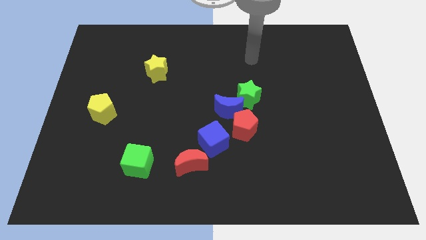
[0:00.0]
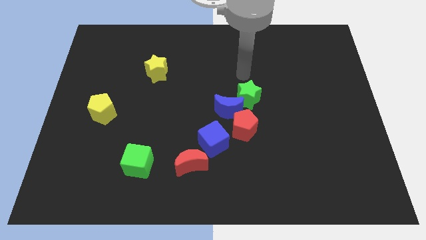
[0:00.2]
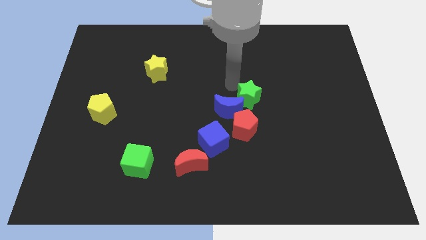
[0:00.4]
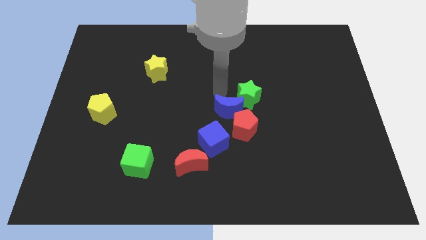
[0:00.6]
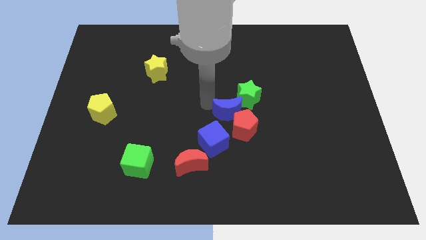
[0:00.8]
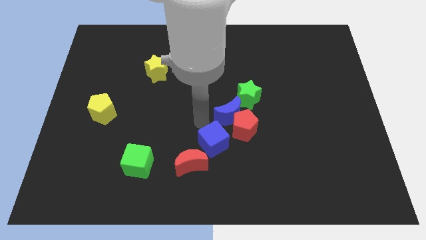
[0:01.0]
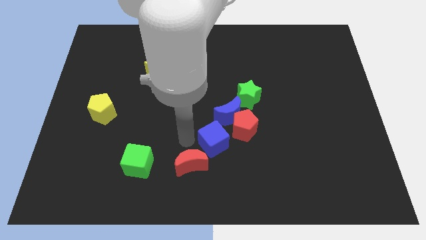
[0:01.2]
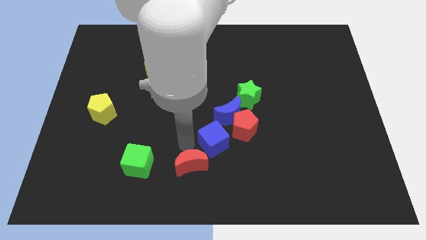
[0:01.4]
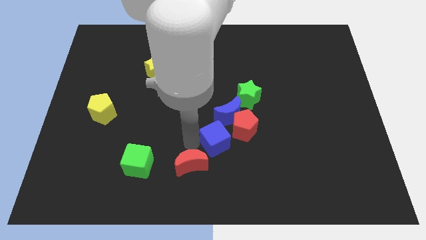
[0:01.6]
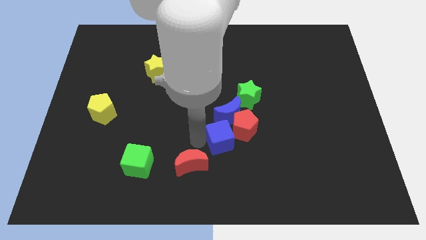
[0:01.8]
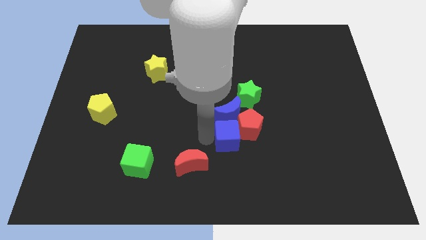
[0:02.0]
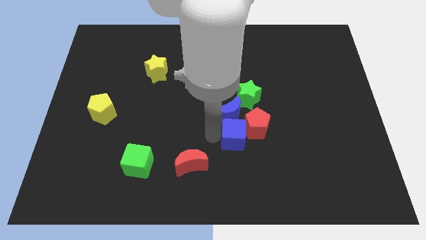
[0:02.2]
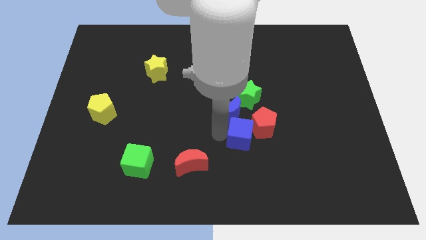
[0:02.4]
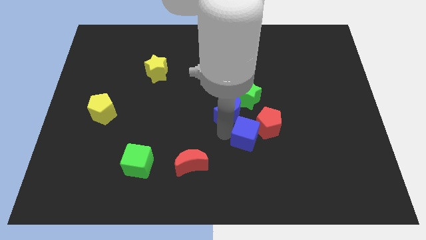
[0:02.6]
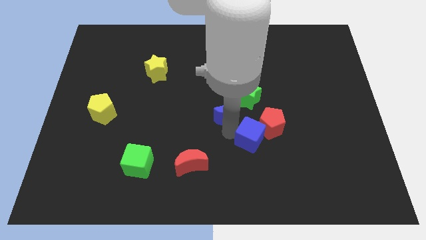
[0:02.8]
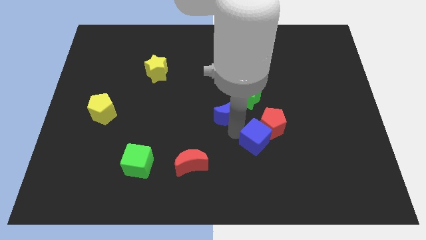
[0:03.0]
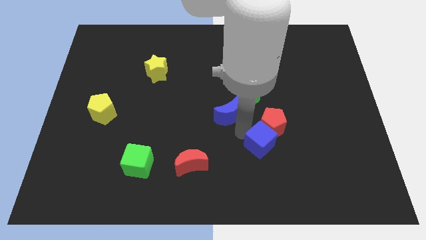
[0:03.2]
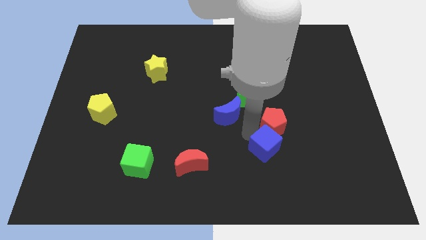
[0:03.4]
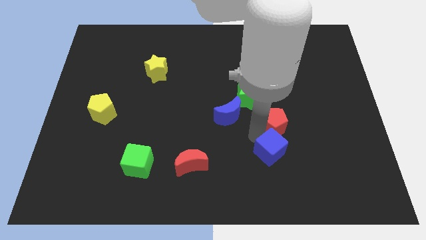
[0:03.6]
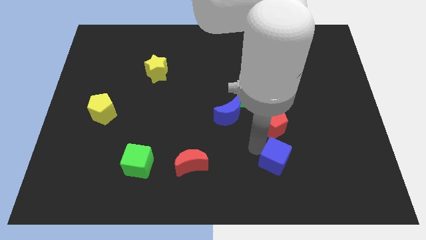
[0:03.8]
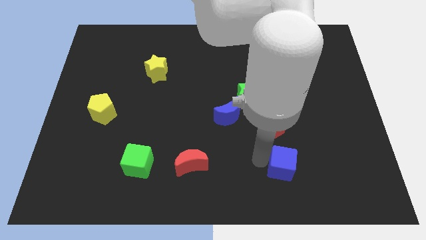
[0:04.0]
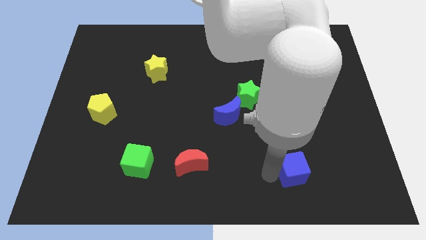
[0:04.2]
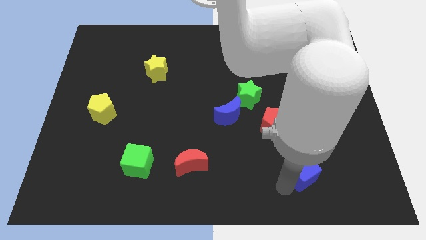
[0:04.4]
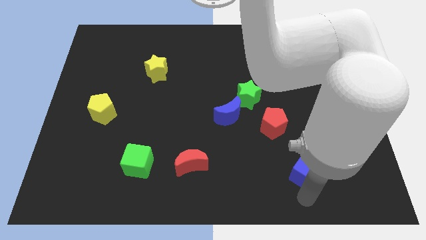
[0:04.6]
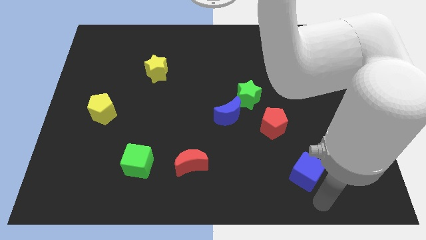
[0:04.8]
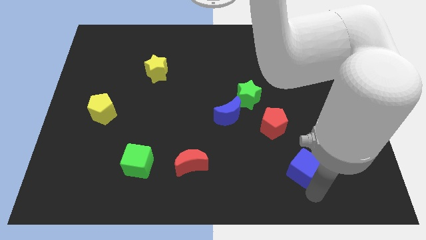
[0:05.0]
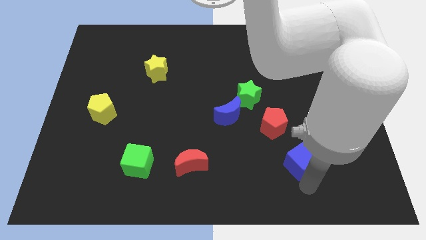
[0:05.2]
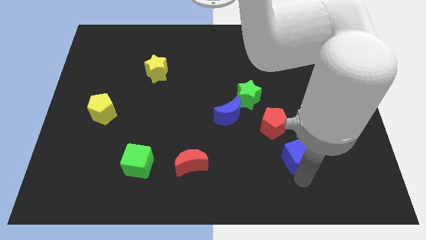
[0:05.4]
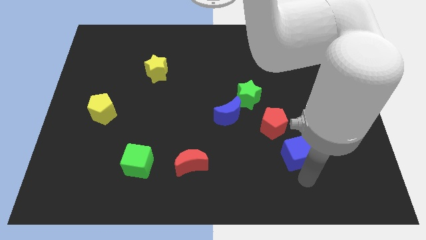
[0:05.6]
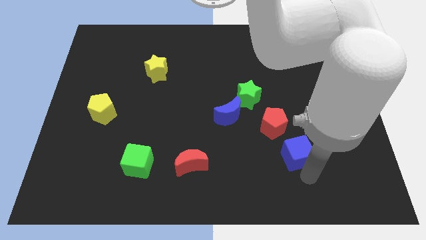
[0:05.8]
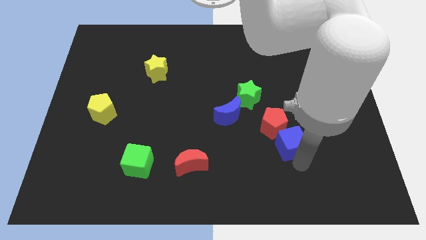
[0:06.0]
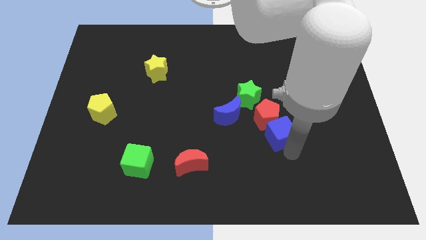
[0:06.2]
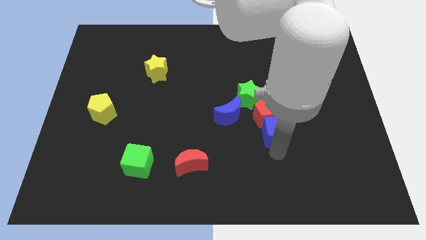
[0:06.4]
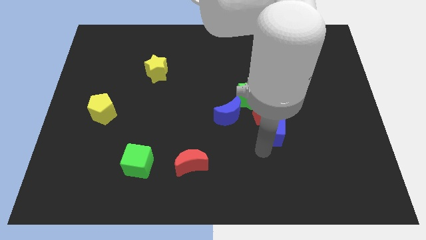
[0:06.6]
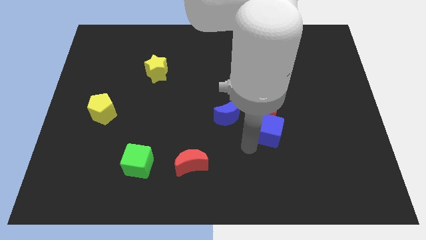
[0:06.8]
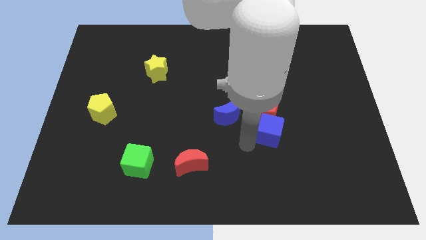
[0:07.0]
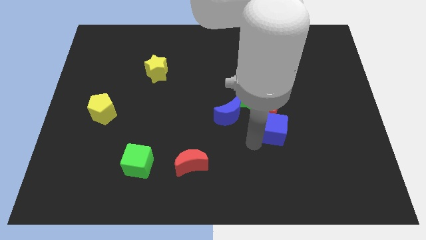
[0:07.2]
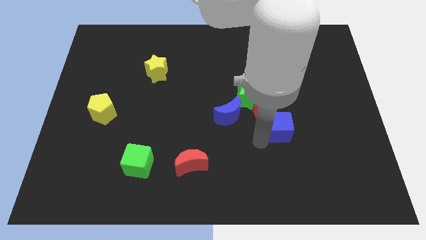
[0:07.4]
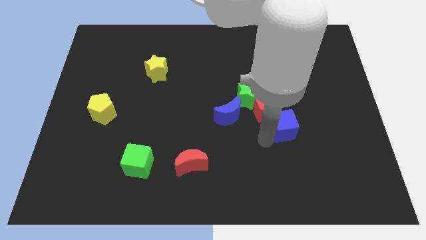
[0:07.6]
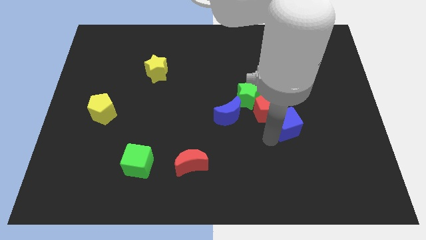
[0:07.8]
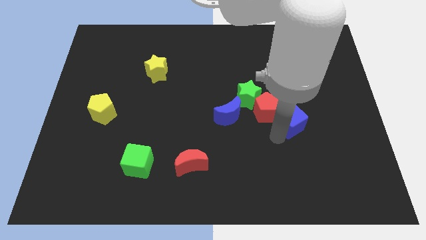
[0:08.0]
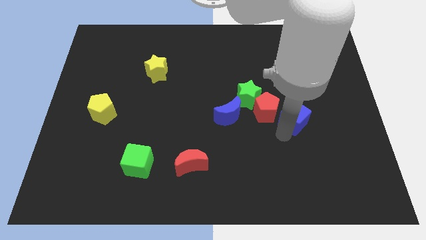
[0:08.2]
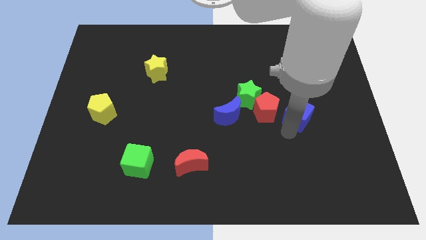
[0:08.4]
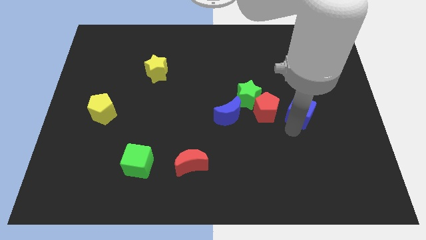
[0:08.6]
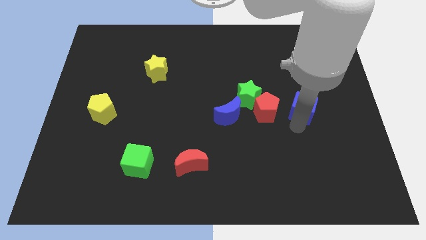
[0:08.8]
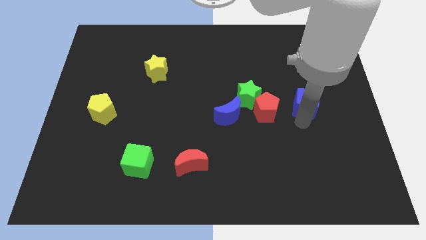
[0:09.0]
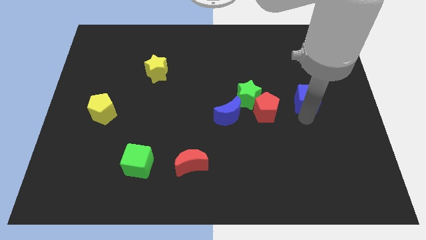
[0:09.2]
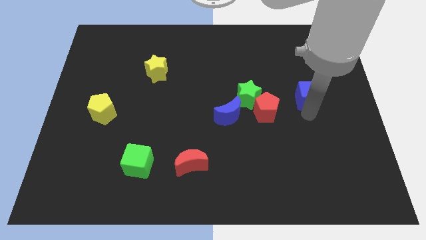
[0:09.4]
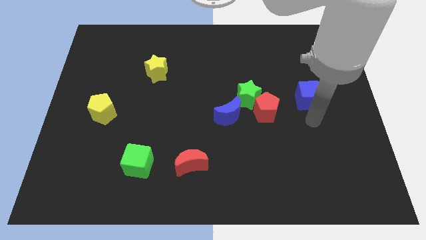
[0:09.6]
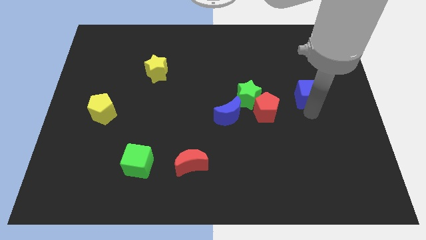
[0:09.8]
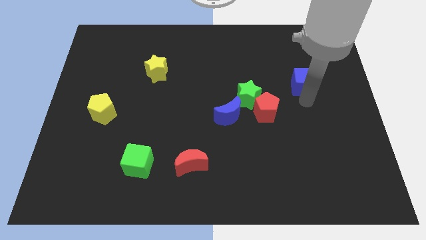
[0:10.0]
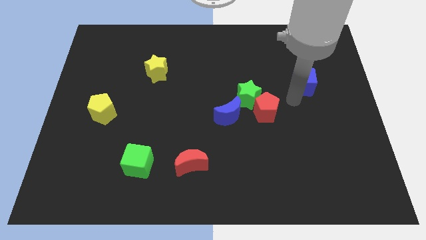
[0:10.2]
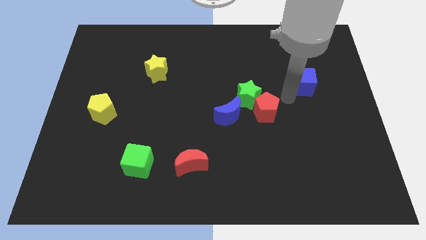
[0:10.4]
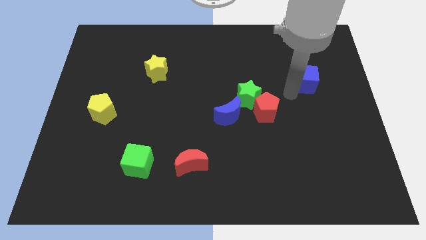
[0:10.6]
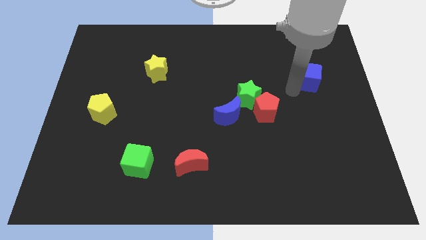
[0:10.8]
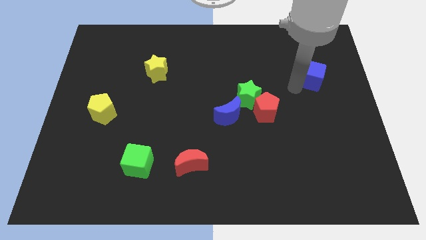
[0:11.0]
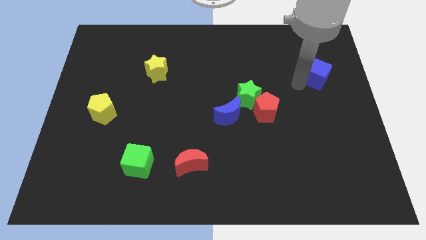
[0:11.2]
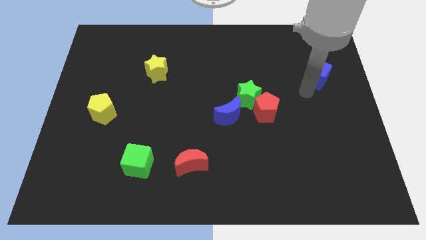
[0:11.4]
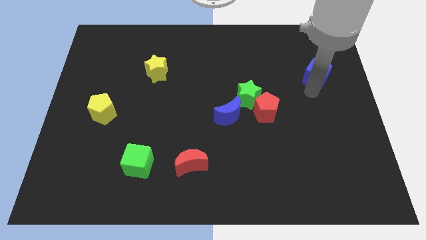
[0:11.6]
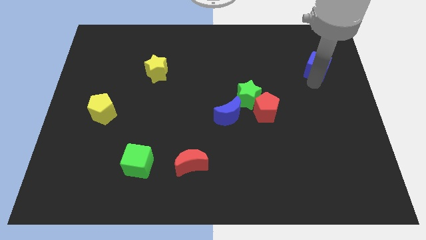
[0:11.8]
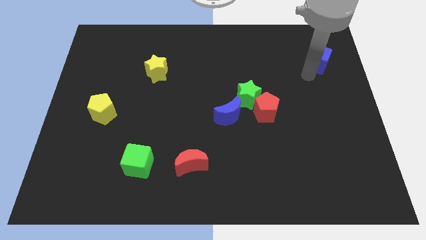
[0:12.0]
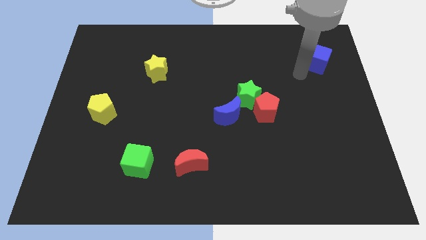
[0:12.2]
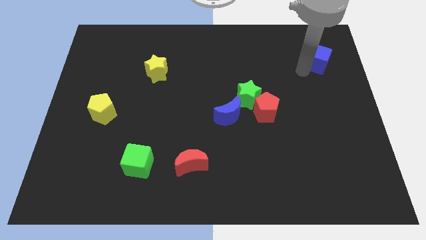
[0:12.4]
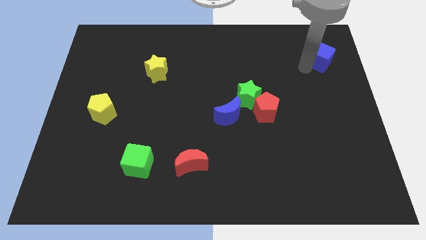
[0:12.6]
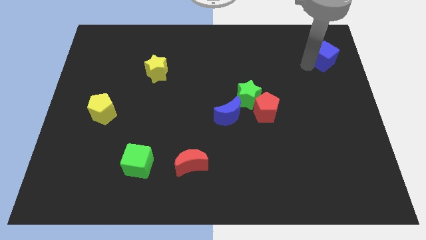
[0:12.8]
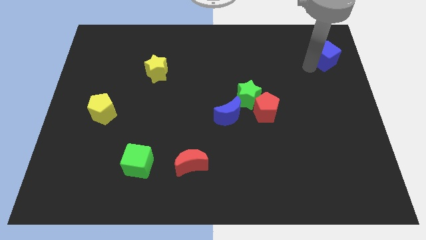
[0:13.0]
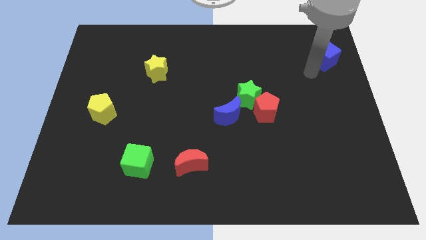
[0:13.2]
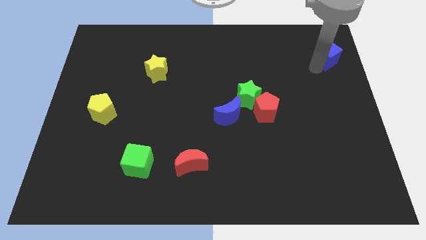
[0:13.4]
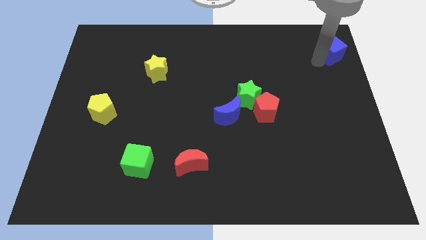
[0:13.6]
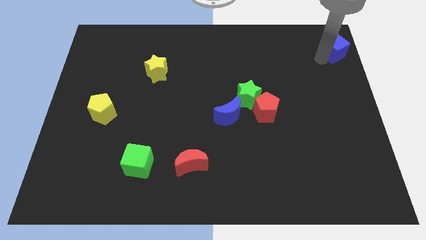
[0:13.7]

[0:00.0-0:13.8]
slide the blue cube to the upper right corner

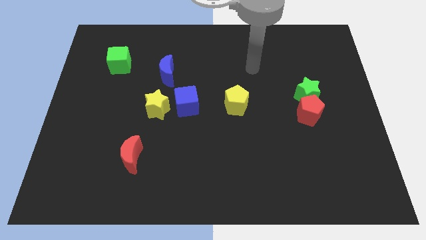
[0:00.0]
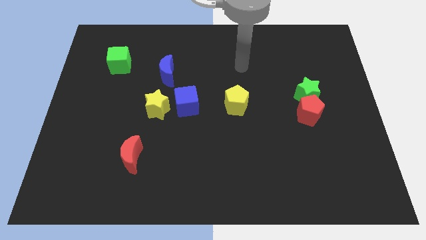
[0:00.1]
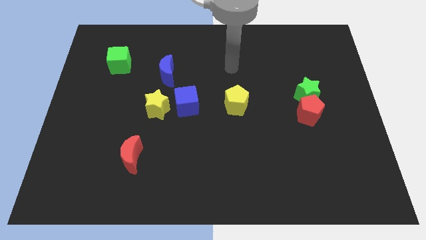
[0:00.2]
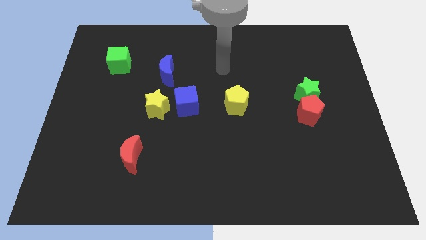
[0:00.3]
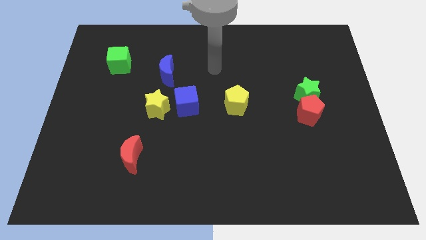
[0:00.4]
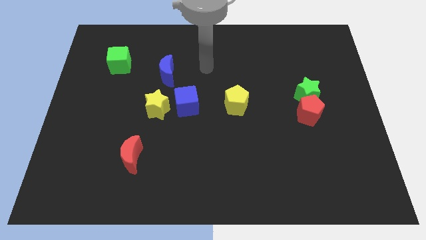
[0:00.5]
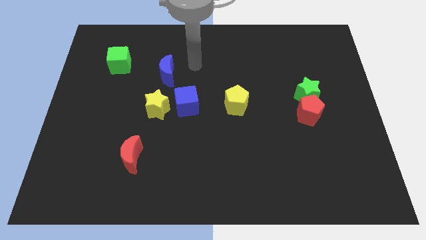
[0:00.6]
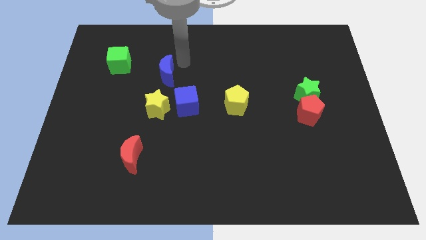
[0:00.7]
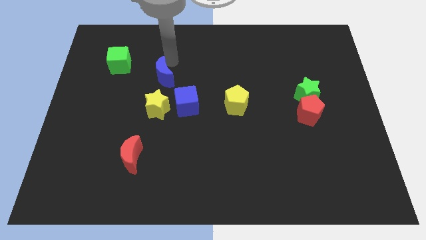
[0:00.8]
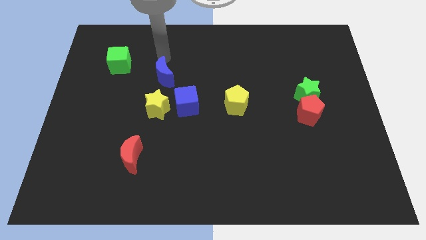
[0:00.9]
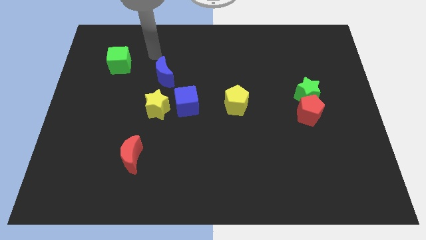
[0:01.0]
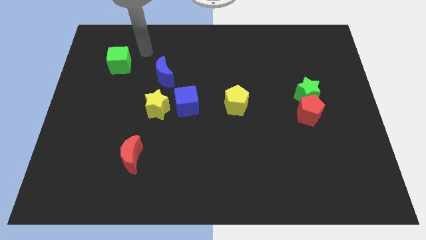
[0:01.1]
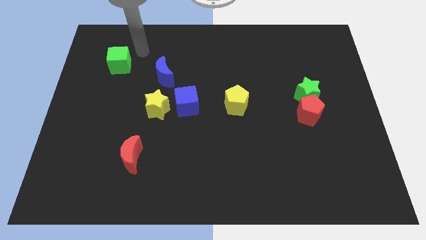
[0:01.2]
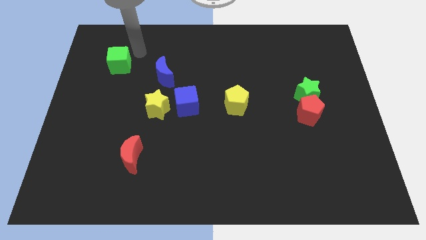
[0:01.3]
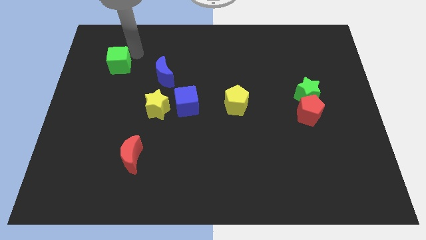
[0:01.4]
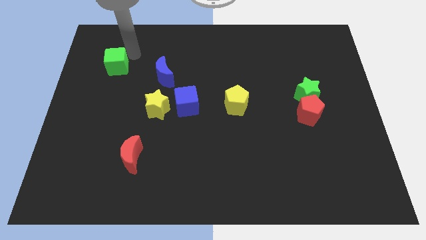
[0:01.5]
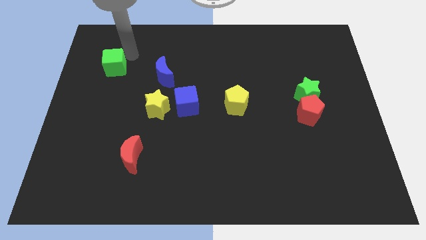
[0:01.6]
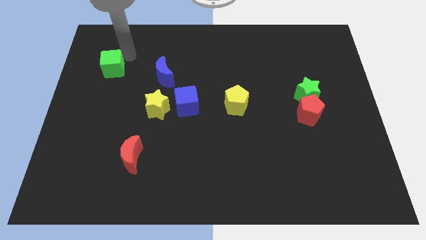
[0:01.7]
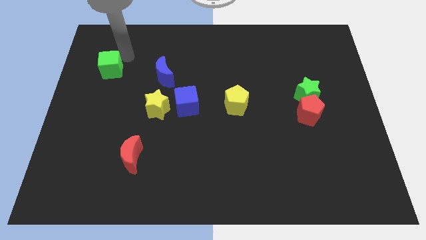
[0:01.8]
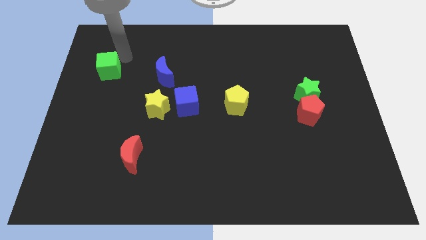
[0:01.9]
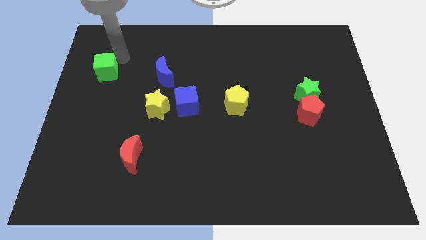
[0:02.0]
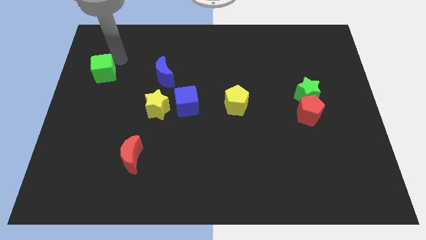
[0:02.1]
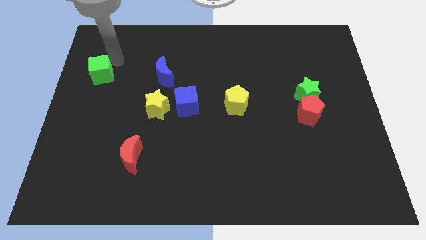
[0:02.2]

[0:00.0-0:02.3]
push the green cube to the left side of the board
